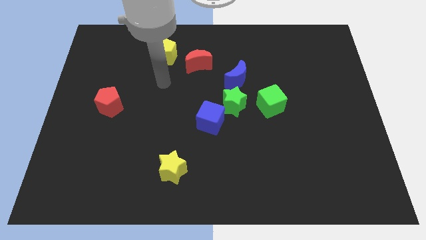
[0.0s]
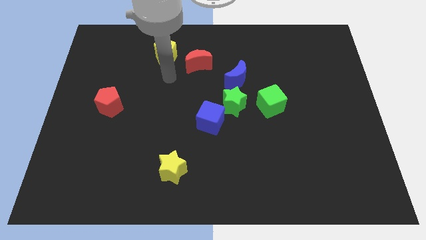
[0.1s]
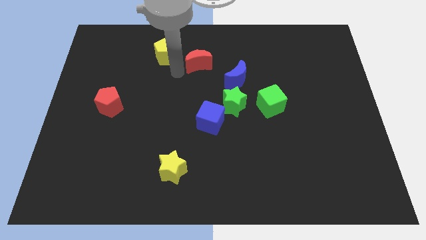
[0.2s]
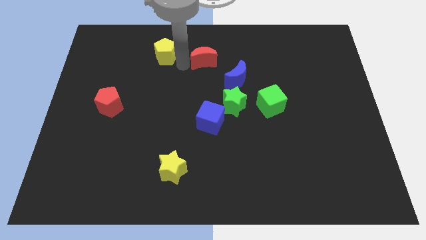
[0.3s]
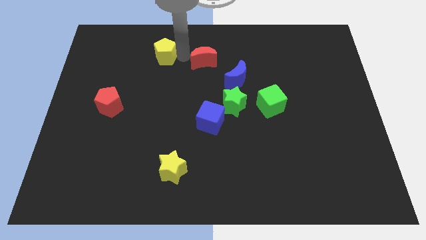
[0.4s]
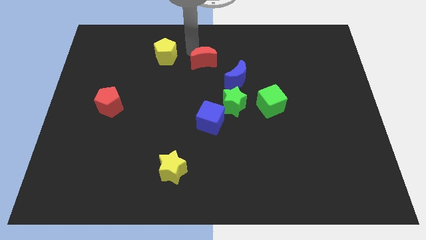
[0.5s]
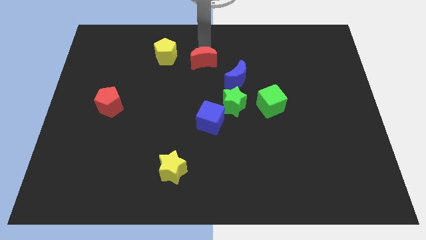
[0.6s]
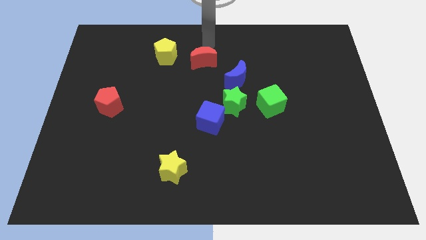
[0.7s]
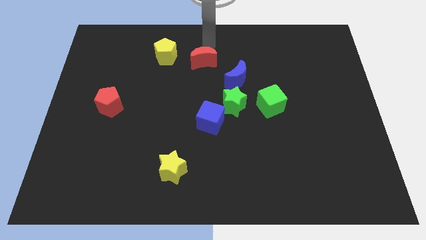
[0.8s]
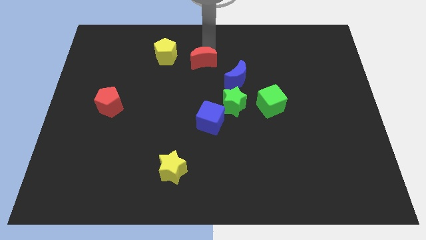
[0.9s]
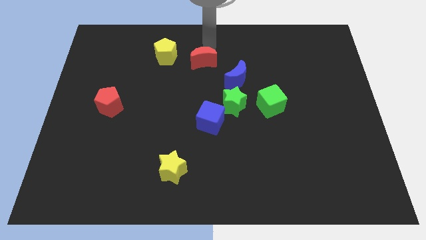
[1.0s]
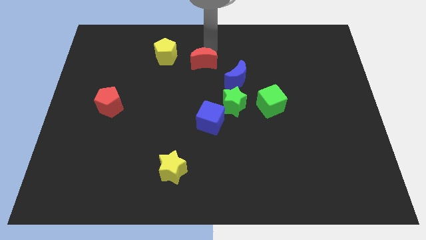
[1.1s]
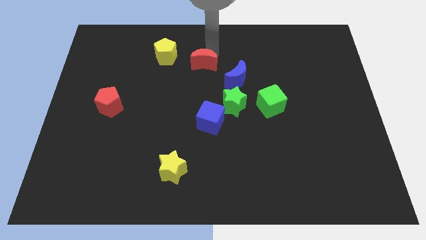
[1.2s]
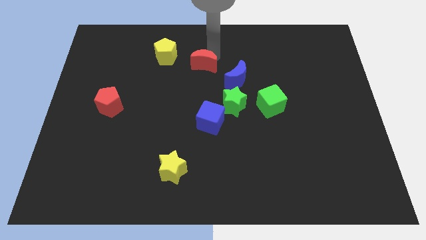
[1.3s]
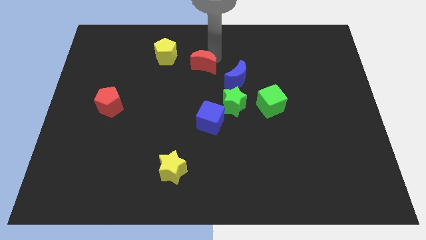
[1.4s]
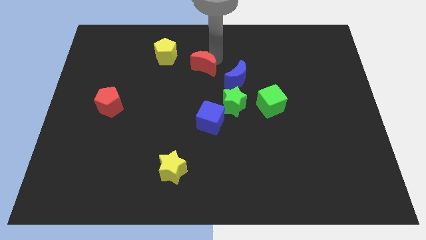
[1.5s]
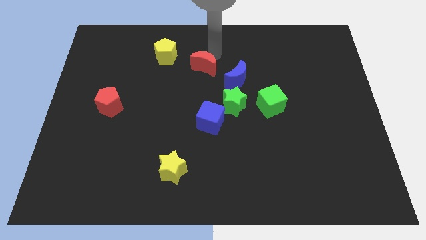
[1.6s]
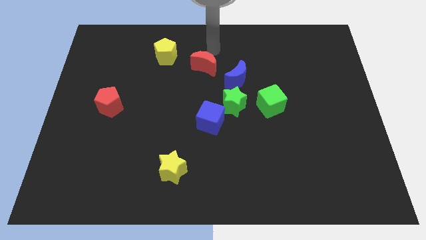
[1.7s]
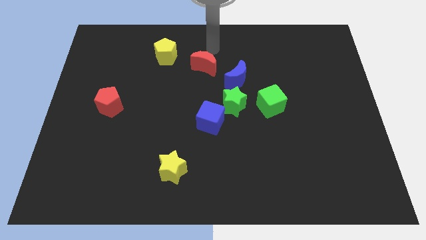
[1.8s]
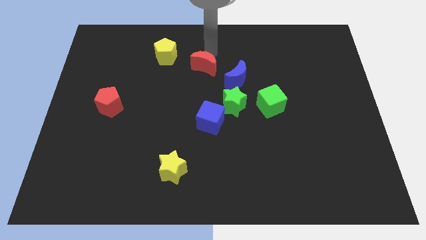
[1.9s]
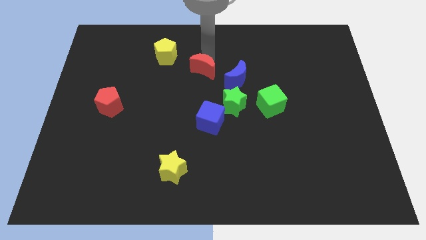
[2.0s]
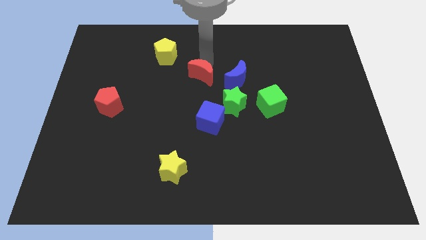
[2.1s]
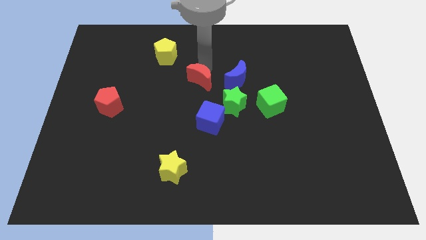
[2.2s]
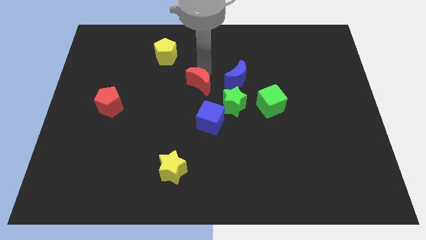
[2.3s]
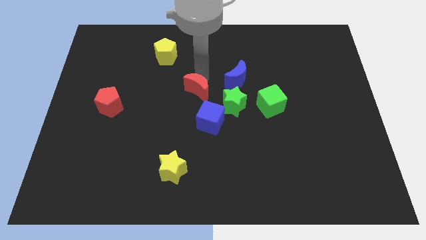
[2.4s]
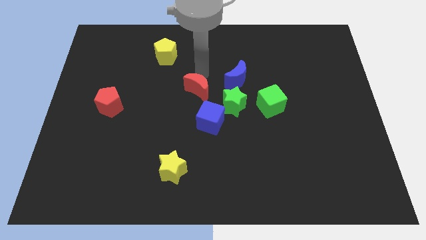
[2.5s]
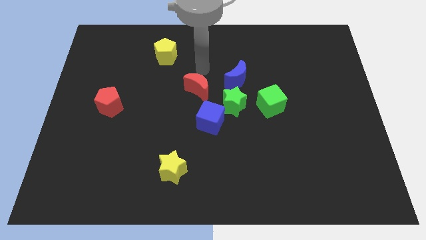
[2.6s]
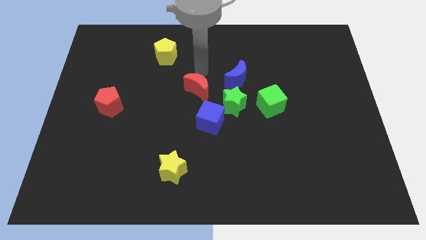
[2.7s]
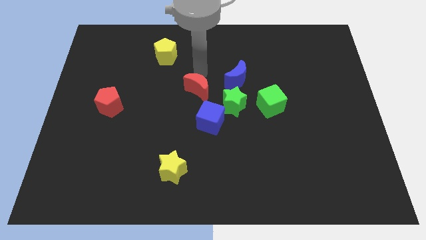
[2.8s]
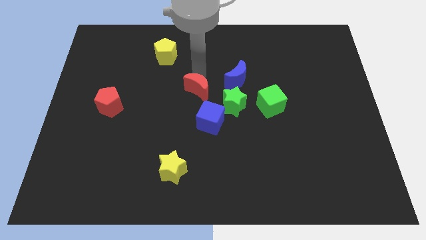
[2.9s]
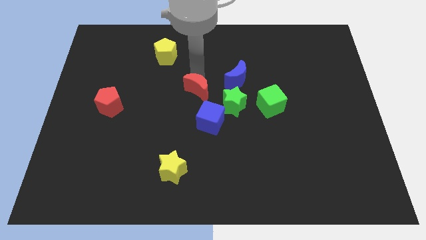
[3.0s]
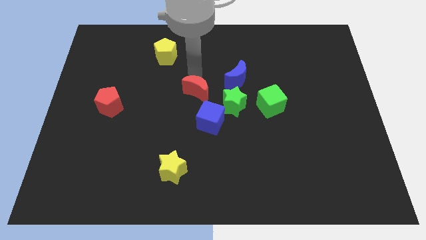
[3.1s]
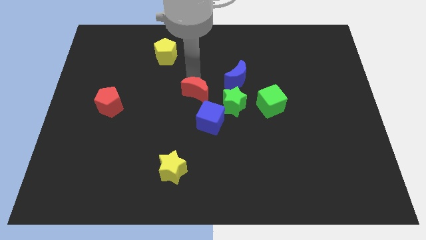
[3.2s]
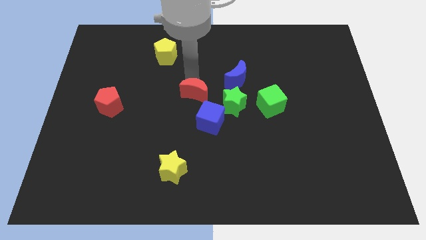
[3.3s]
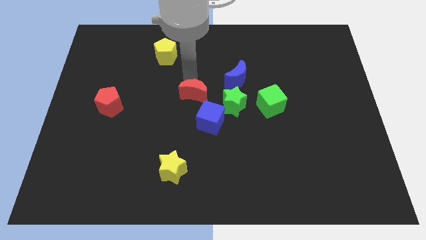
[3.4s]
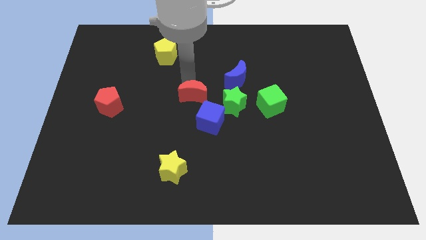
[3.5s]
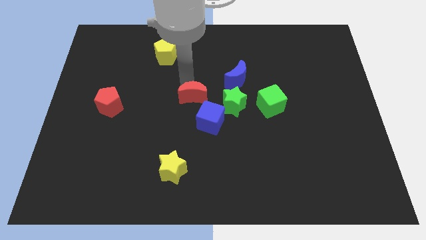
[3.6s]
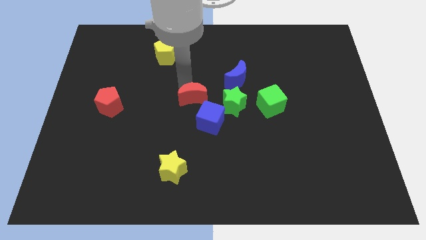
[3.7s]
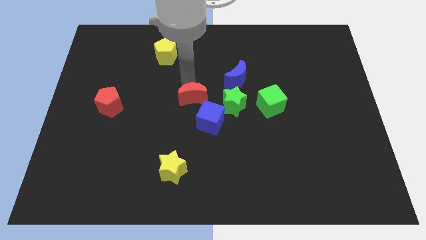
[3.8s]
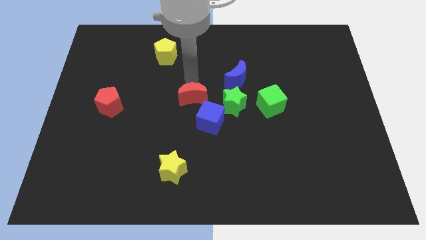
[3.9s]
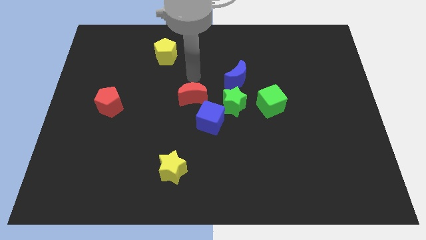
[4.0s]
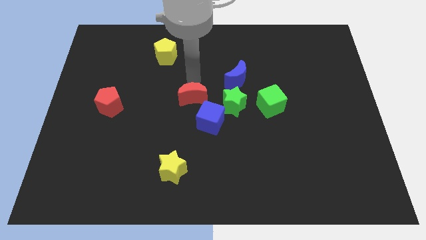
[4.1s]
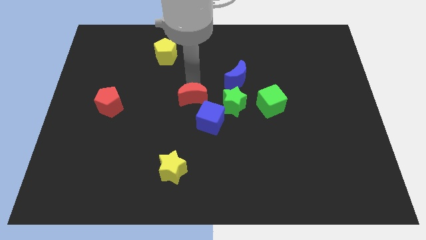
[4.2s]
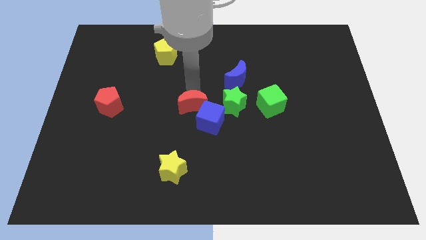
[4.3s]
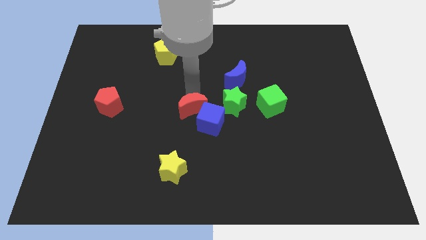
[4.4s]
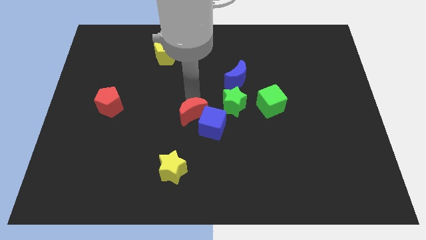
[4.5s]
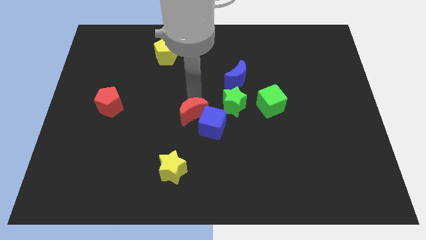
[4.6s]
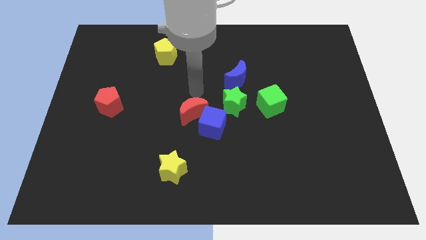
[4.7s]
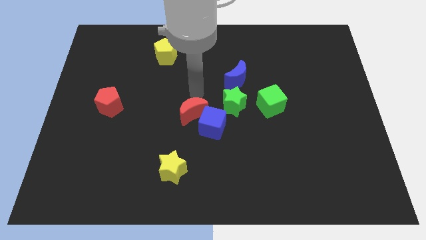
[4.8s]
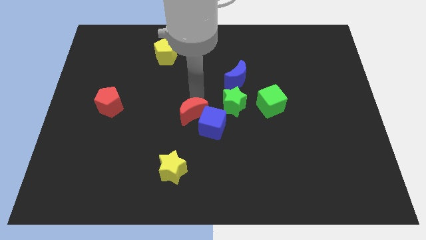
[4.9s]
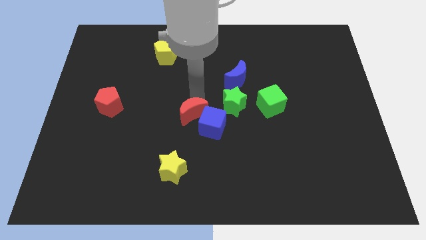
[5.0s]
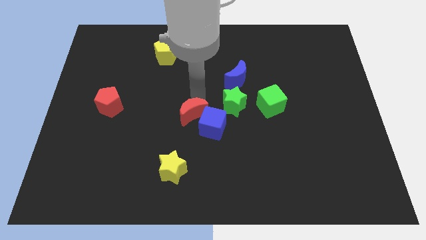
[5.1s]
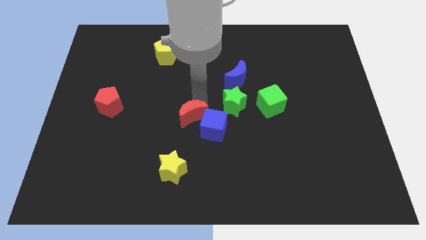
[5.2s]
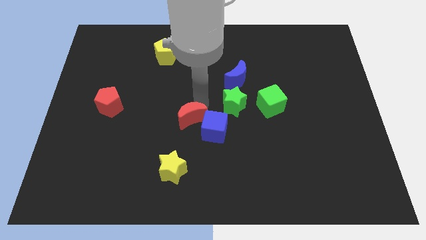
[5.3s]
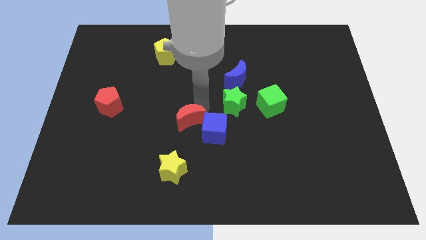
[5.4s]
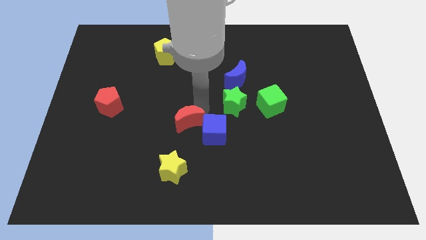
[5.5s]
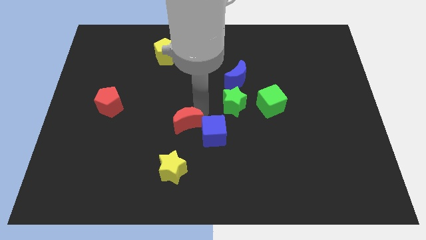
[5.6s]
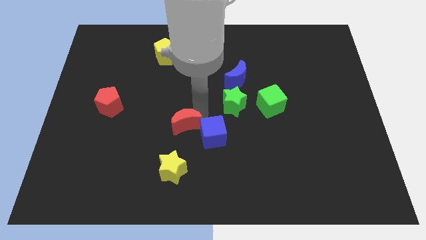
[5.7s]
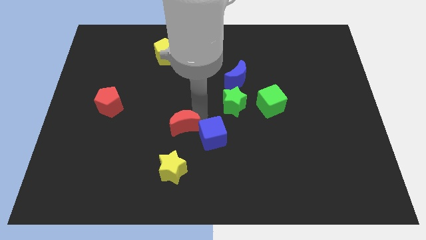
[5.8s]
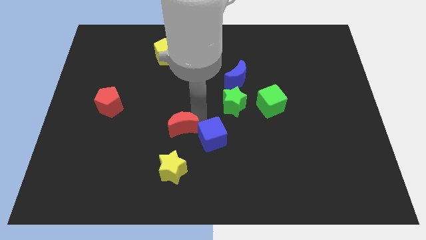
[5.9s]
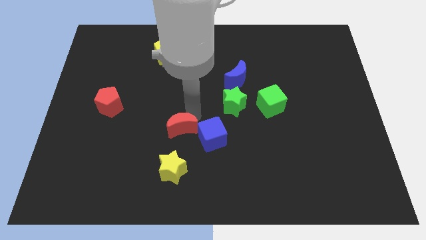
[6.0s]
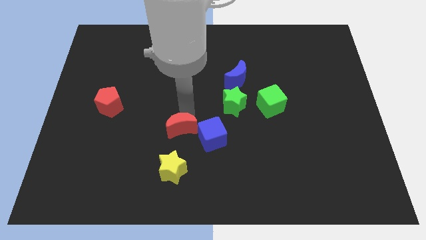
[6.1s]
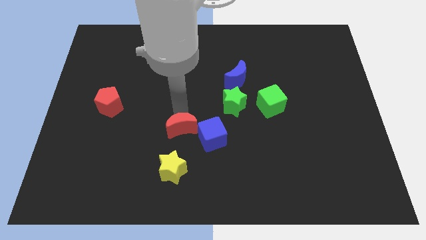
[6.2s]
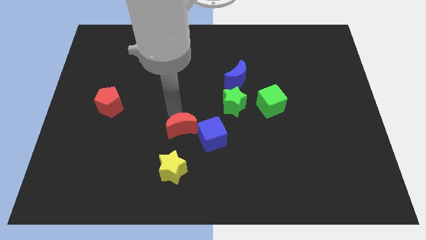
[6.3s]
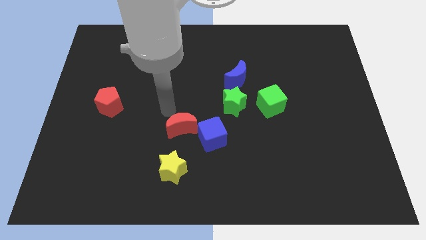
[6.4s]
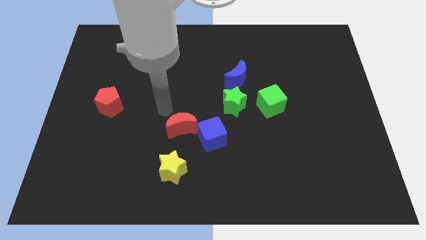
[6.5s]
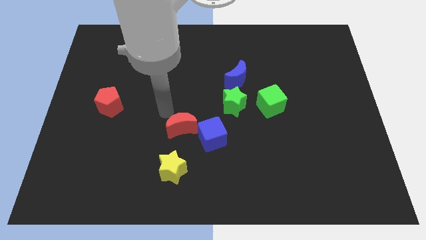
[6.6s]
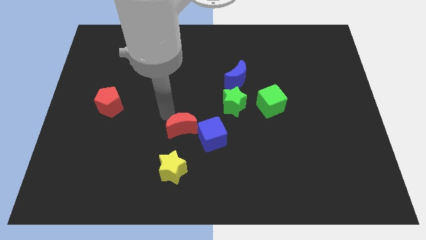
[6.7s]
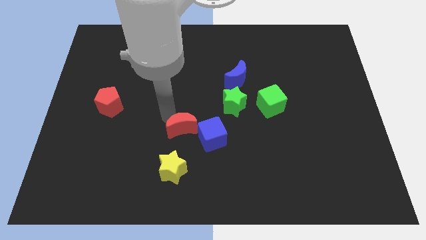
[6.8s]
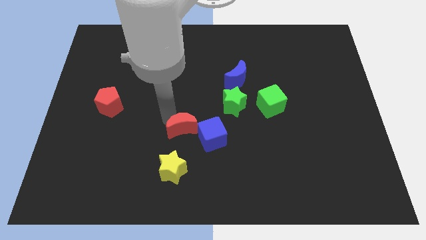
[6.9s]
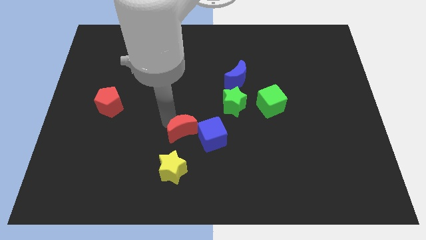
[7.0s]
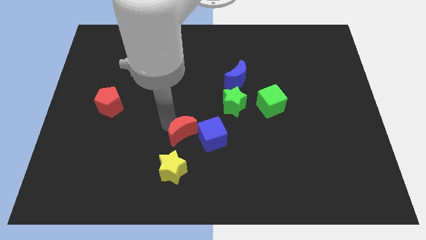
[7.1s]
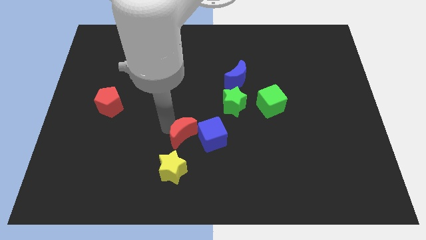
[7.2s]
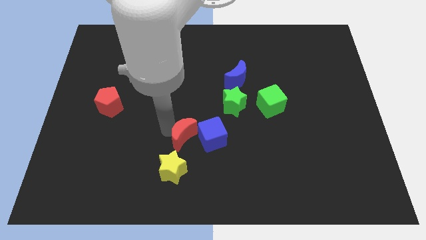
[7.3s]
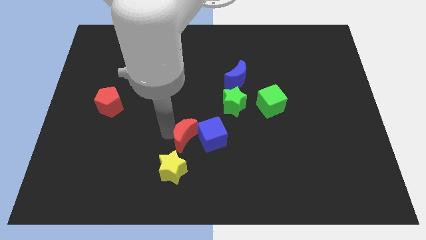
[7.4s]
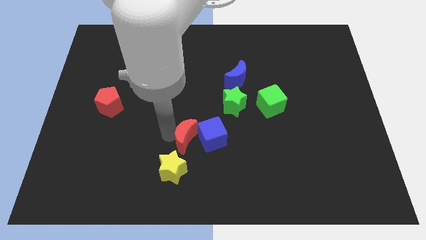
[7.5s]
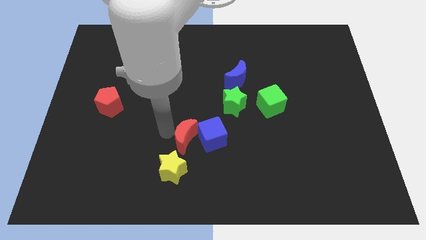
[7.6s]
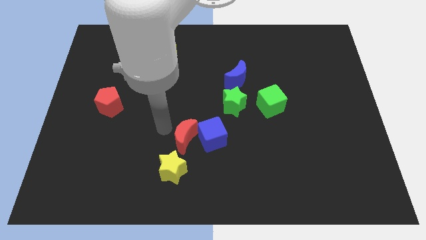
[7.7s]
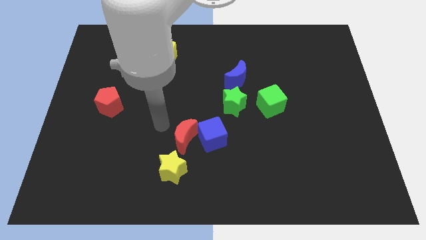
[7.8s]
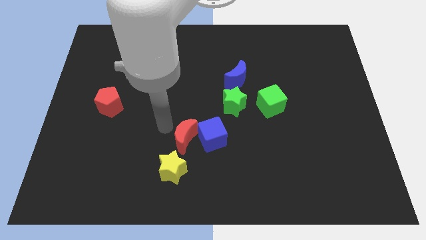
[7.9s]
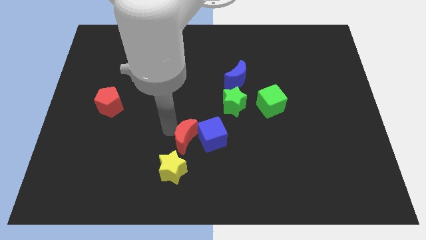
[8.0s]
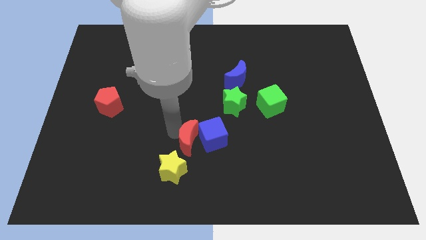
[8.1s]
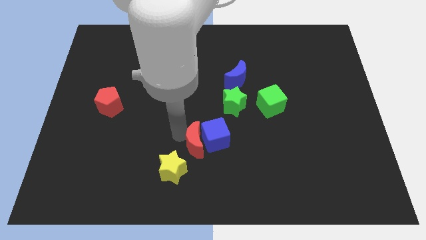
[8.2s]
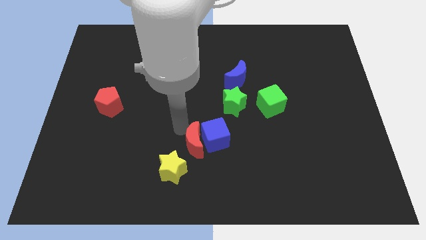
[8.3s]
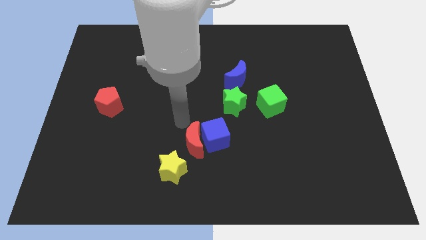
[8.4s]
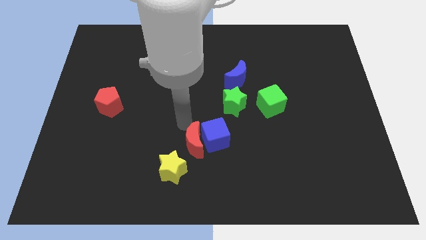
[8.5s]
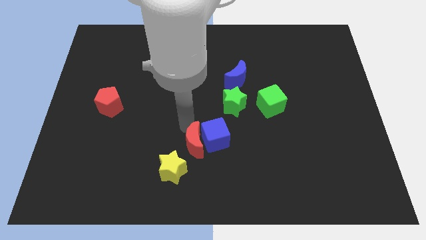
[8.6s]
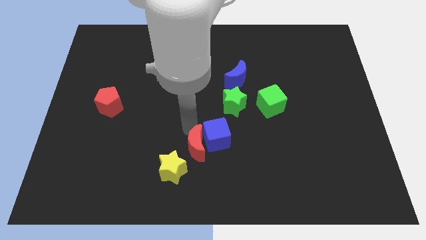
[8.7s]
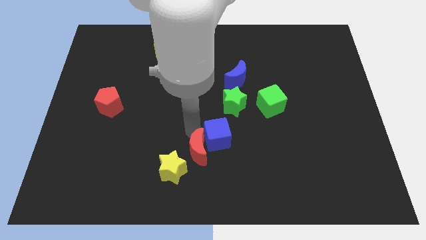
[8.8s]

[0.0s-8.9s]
move the red moon below the blue cube
